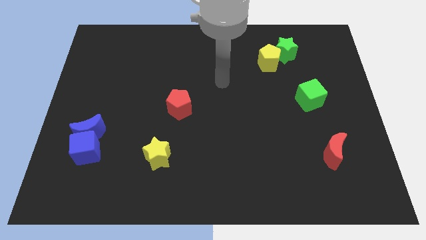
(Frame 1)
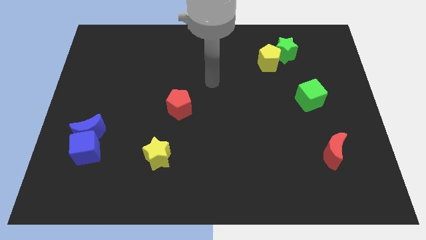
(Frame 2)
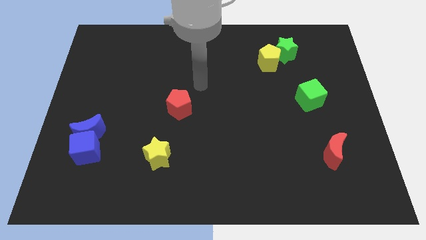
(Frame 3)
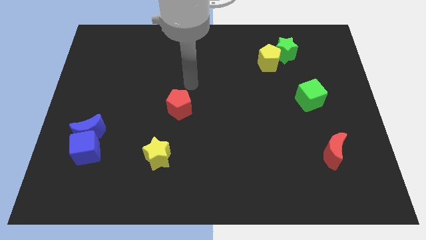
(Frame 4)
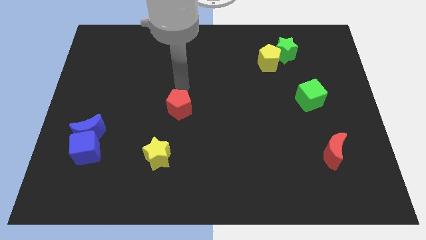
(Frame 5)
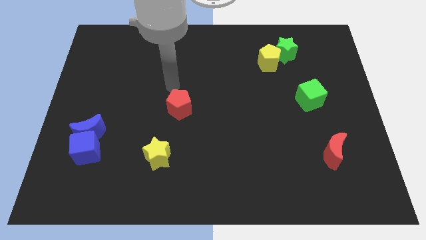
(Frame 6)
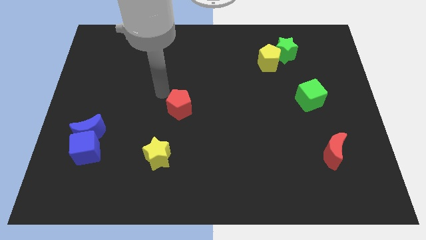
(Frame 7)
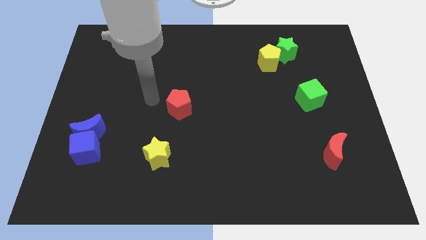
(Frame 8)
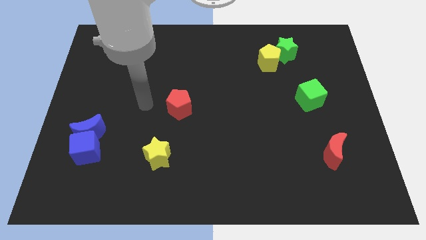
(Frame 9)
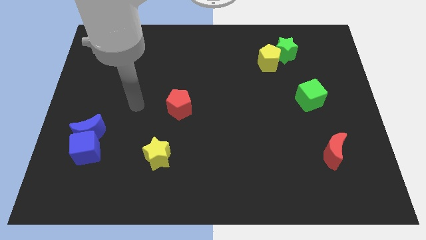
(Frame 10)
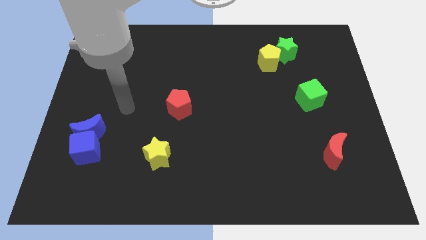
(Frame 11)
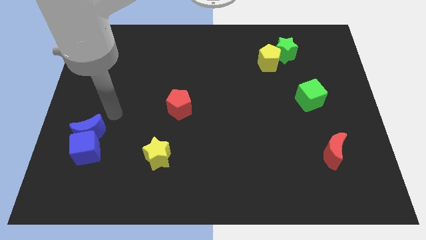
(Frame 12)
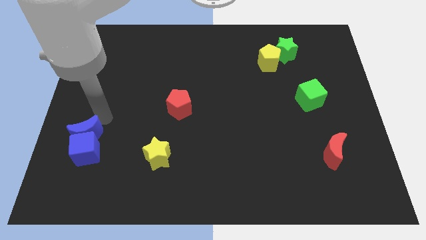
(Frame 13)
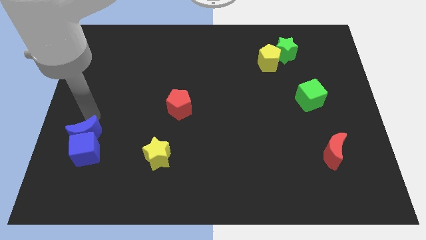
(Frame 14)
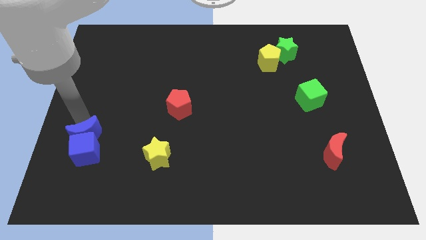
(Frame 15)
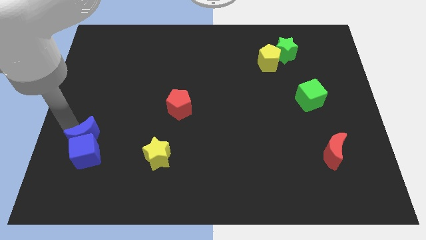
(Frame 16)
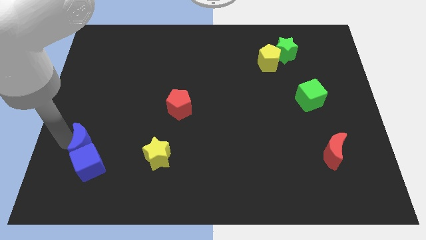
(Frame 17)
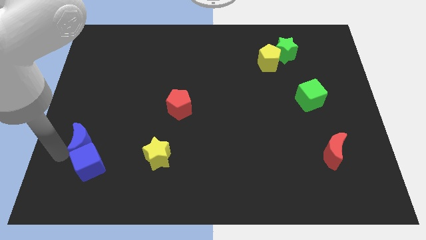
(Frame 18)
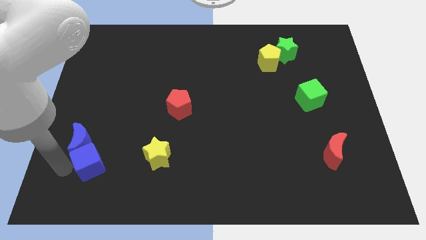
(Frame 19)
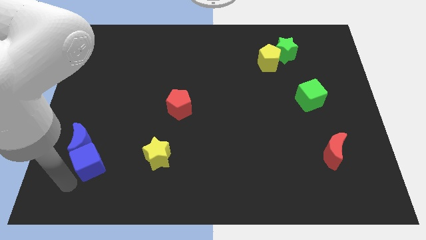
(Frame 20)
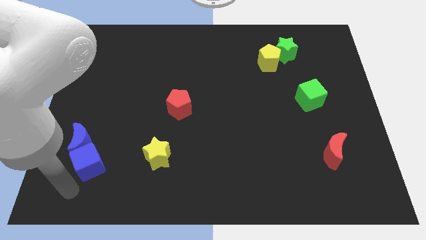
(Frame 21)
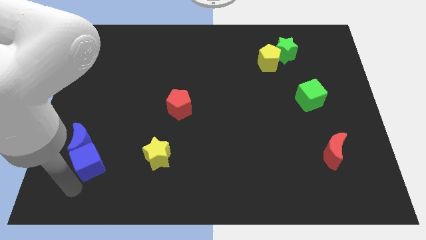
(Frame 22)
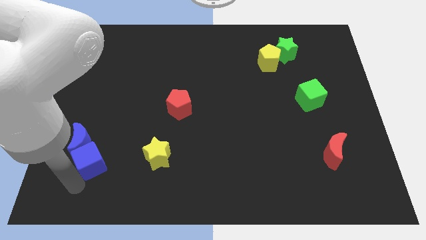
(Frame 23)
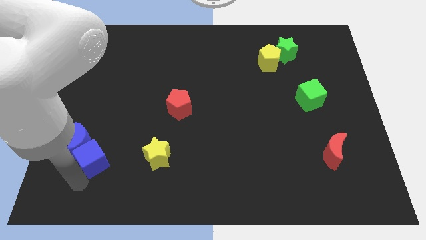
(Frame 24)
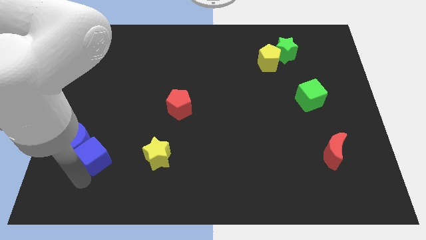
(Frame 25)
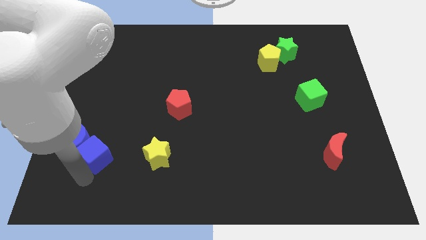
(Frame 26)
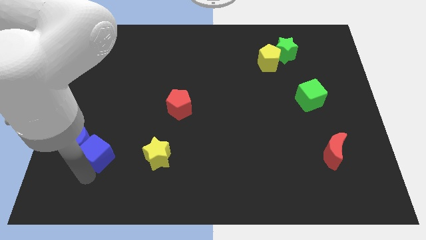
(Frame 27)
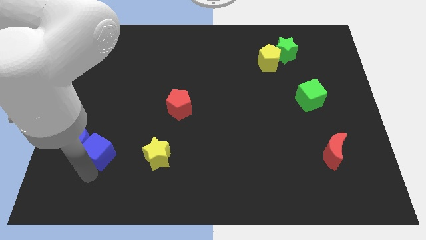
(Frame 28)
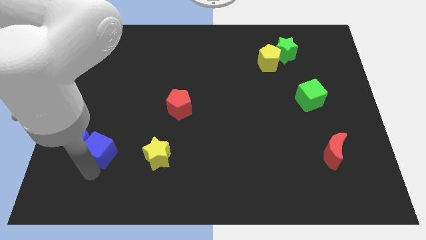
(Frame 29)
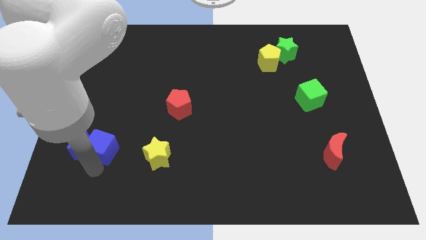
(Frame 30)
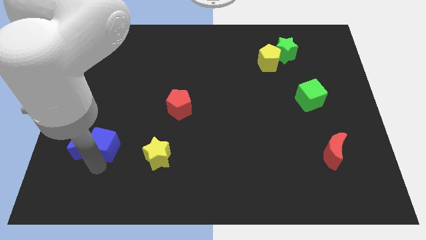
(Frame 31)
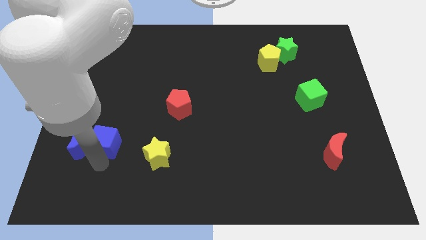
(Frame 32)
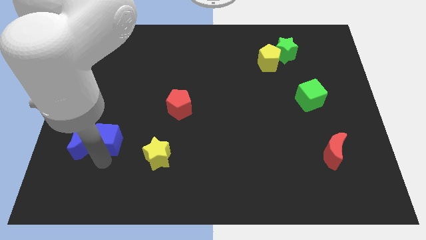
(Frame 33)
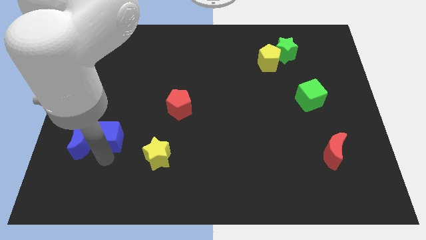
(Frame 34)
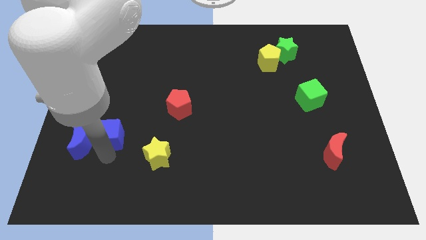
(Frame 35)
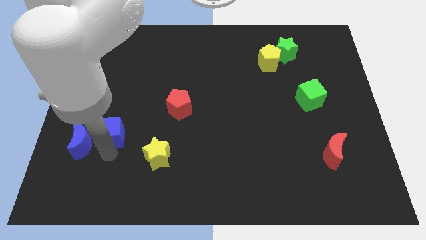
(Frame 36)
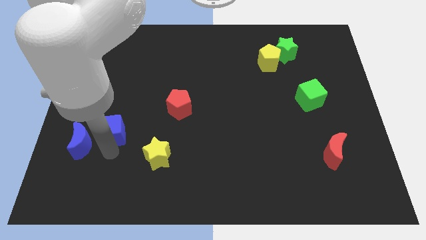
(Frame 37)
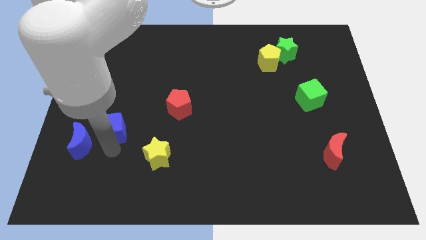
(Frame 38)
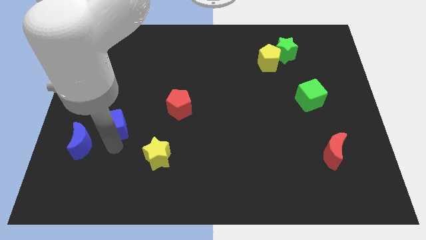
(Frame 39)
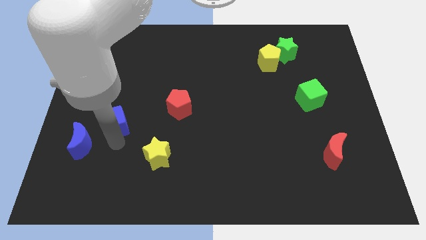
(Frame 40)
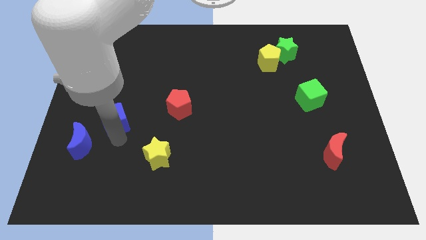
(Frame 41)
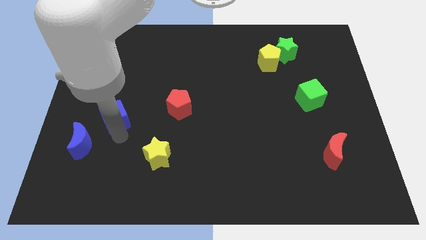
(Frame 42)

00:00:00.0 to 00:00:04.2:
slightly slide the blue cube upwards

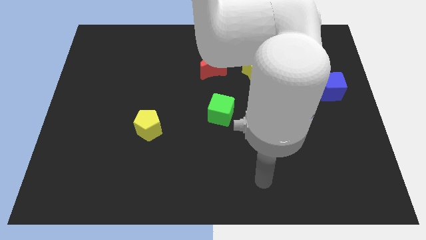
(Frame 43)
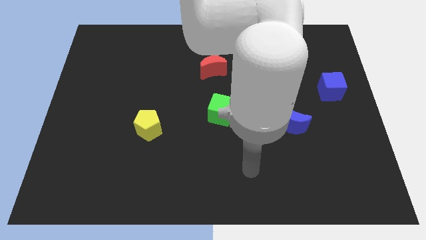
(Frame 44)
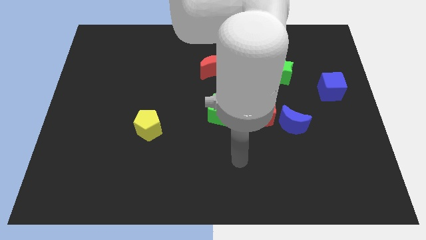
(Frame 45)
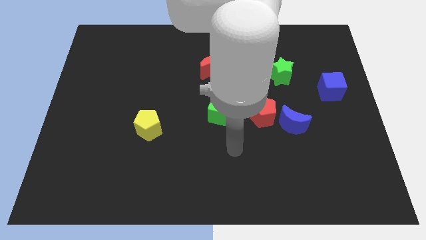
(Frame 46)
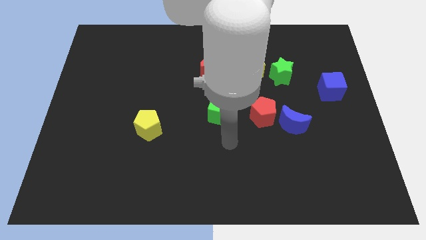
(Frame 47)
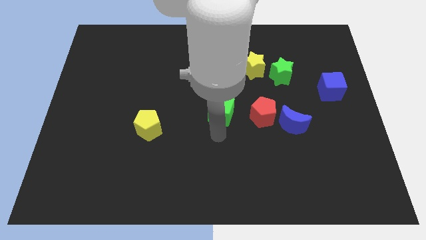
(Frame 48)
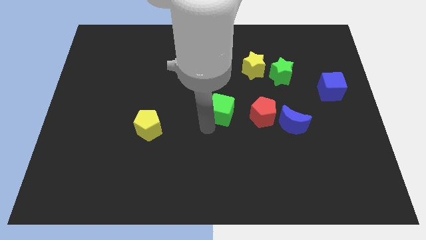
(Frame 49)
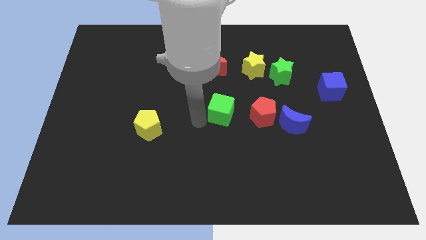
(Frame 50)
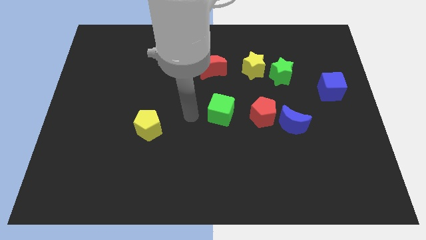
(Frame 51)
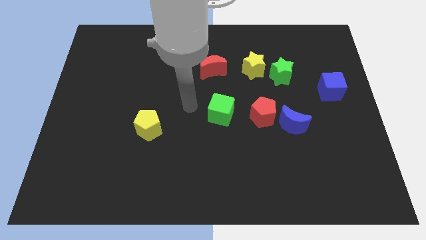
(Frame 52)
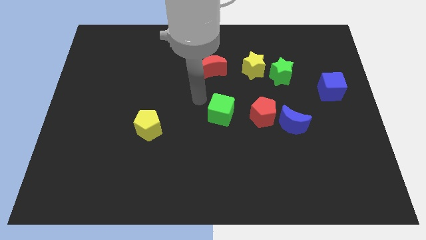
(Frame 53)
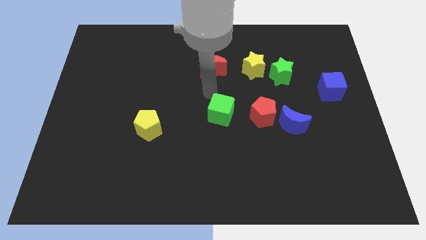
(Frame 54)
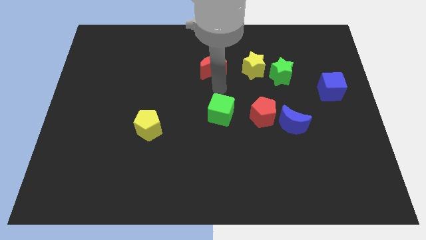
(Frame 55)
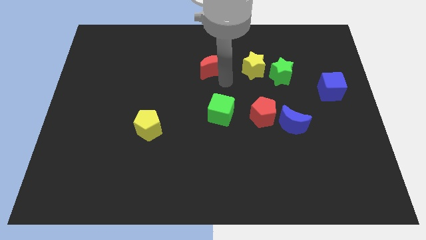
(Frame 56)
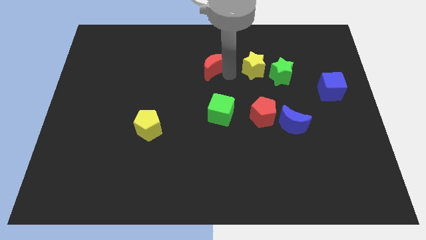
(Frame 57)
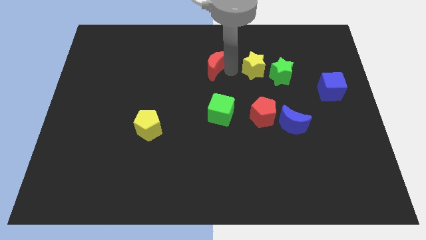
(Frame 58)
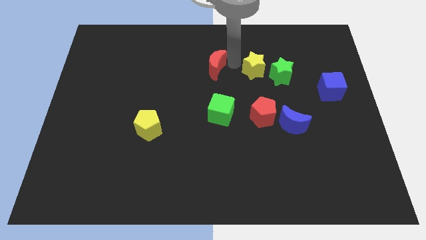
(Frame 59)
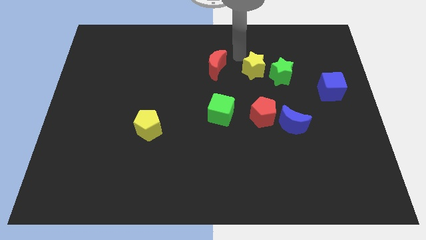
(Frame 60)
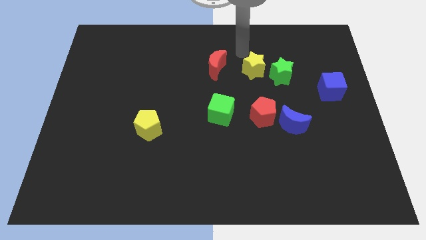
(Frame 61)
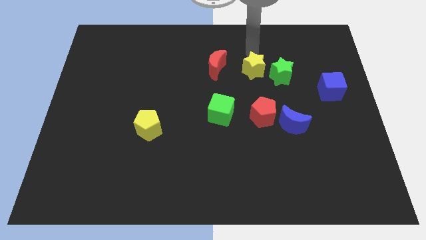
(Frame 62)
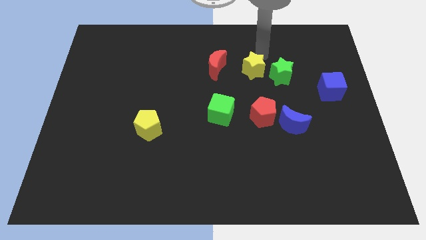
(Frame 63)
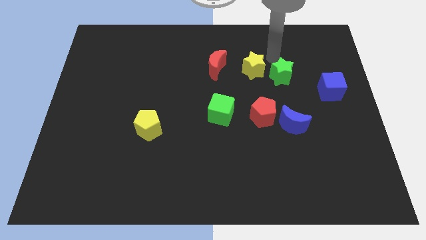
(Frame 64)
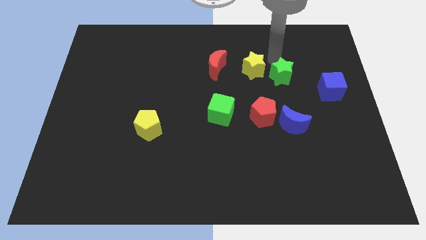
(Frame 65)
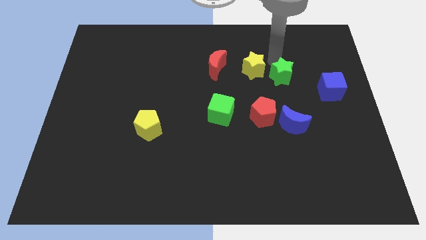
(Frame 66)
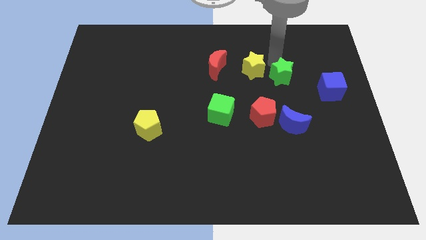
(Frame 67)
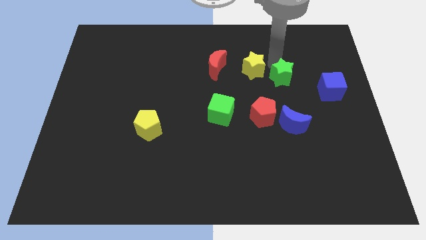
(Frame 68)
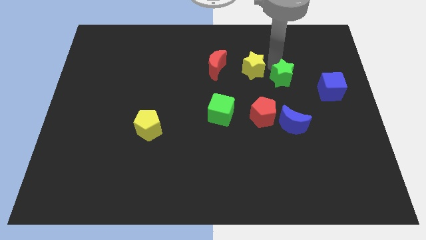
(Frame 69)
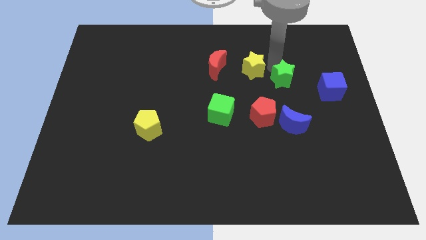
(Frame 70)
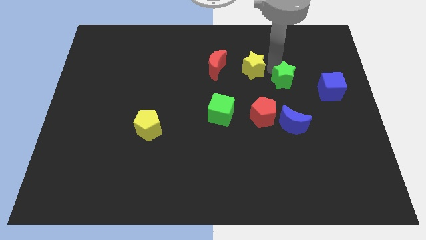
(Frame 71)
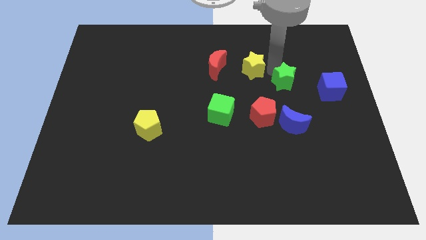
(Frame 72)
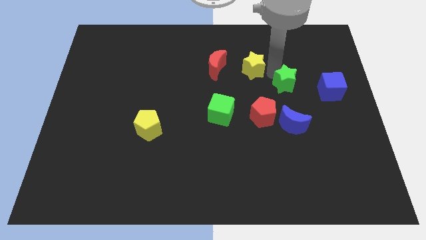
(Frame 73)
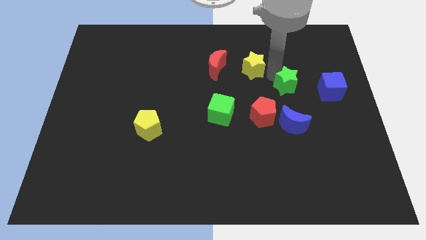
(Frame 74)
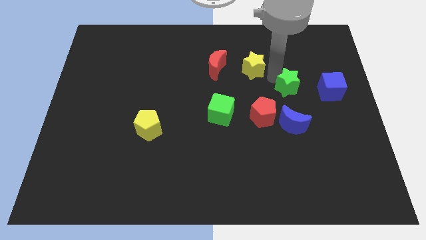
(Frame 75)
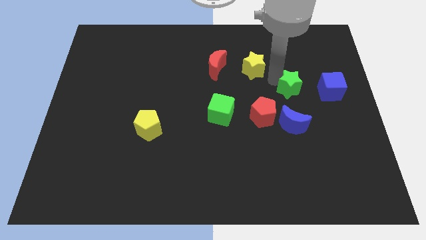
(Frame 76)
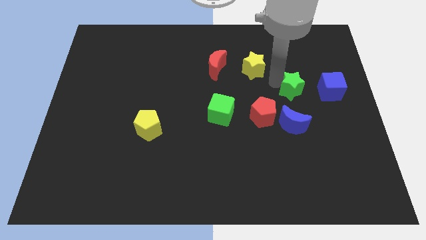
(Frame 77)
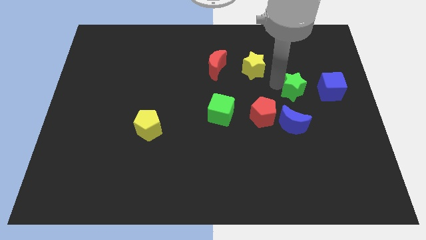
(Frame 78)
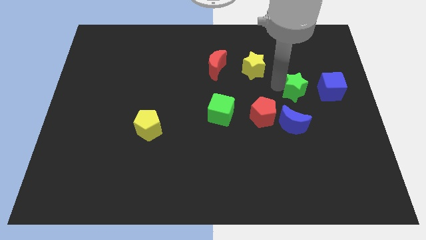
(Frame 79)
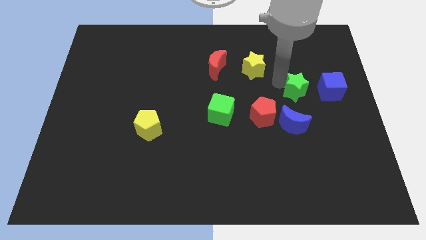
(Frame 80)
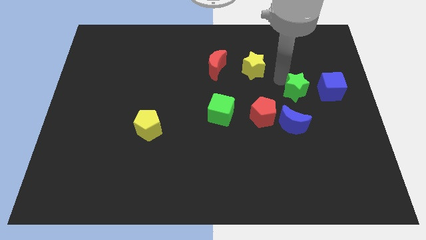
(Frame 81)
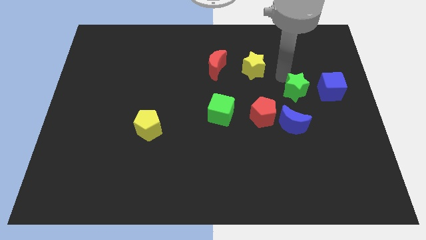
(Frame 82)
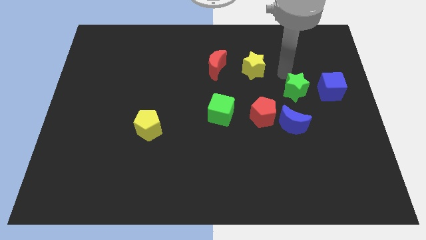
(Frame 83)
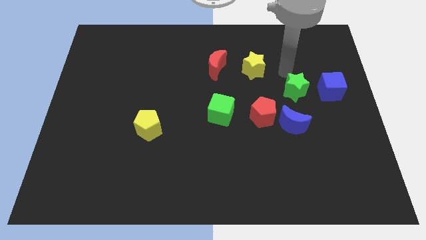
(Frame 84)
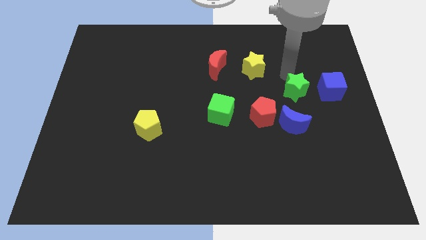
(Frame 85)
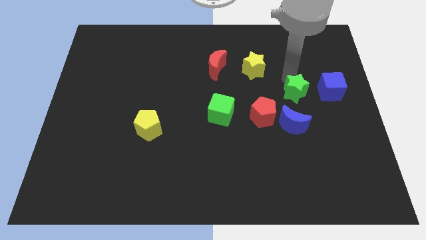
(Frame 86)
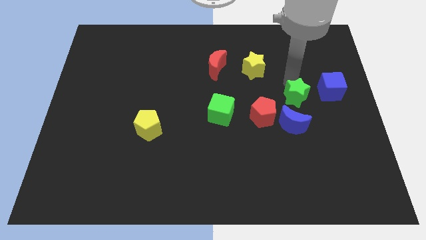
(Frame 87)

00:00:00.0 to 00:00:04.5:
slide the green star down slightly
